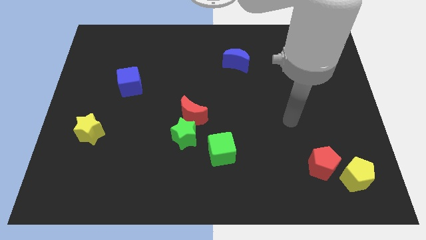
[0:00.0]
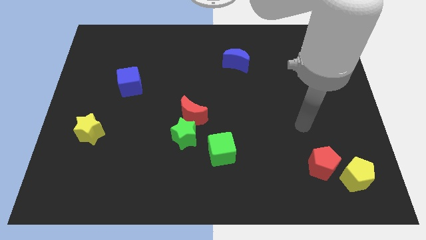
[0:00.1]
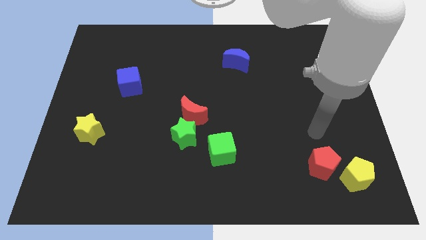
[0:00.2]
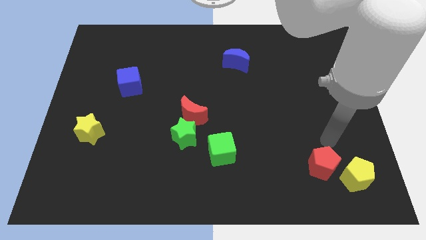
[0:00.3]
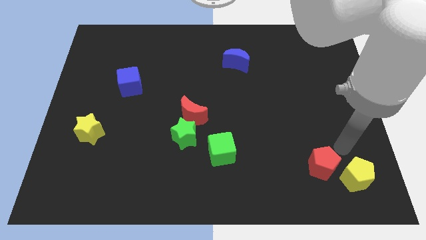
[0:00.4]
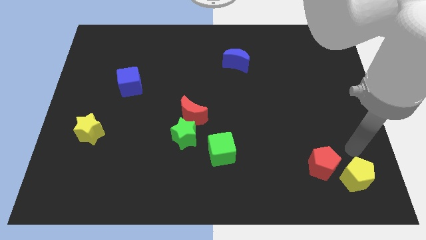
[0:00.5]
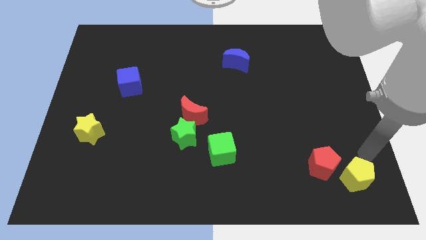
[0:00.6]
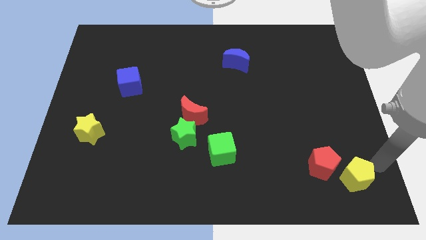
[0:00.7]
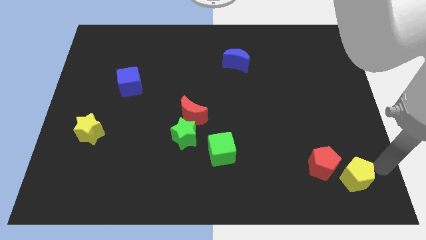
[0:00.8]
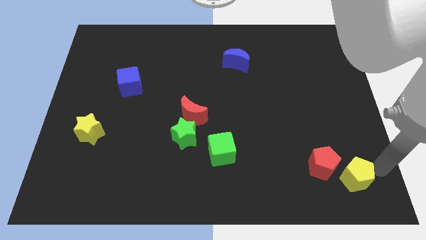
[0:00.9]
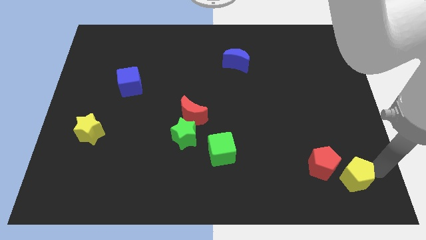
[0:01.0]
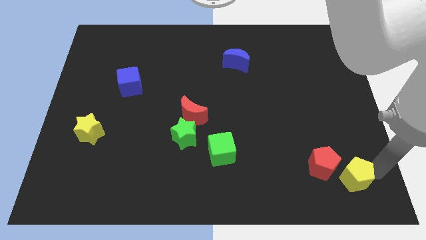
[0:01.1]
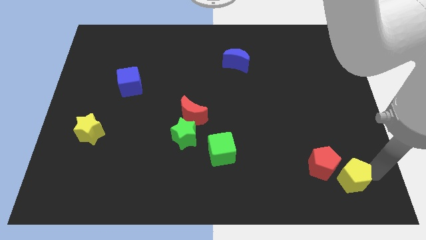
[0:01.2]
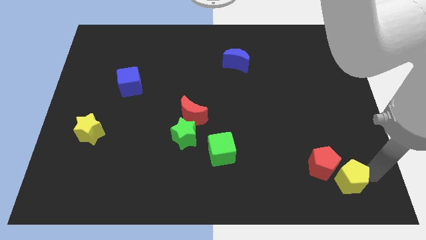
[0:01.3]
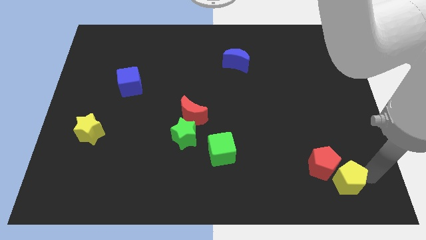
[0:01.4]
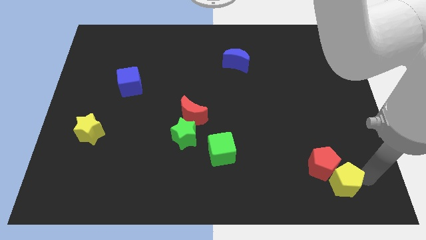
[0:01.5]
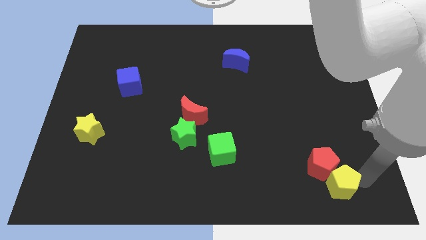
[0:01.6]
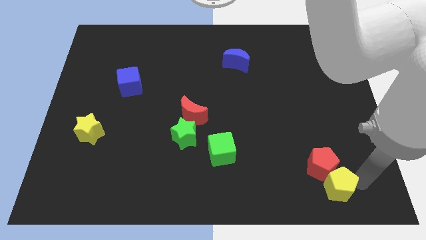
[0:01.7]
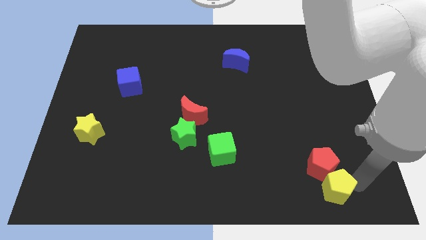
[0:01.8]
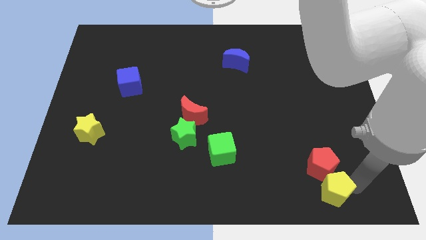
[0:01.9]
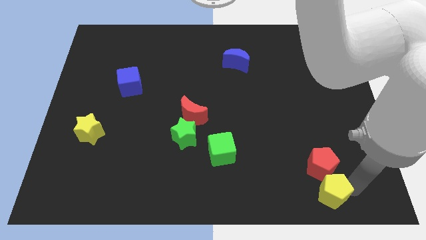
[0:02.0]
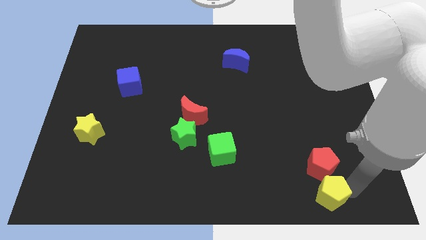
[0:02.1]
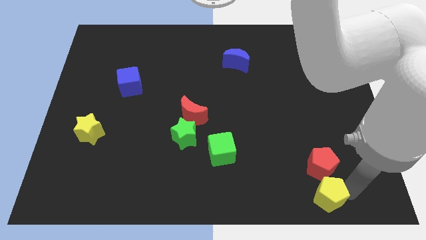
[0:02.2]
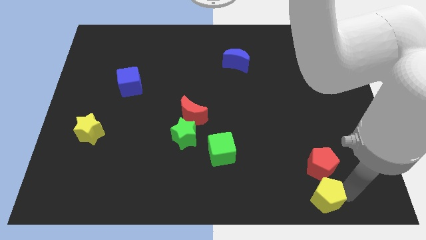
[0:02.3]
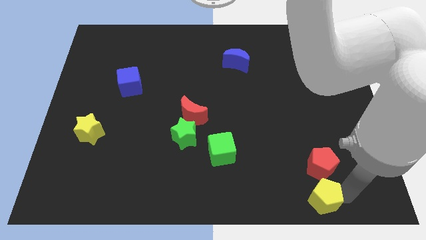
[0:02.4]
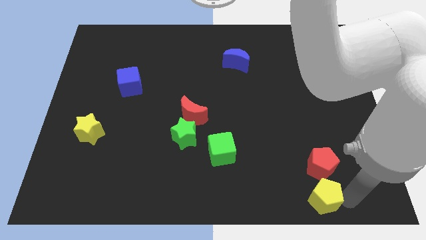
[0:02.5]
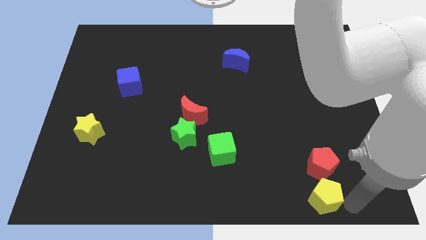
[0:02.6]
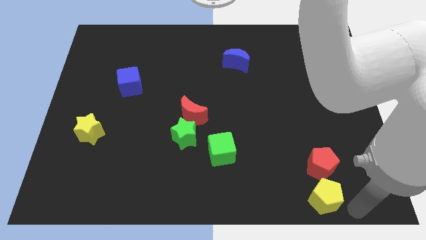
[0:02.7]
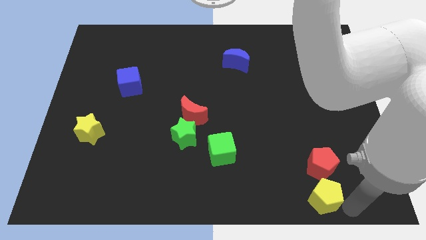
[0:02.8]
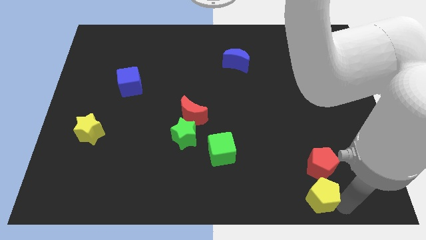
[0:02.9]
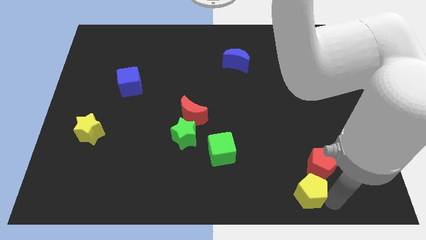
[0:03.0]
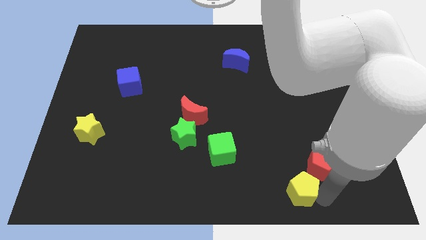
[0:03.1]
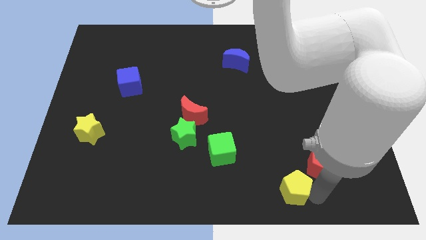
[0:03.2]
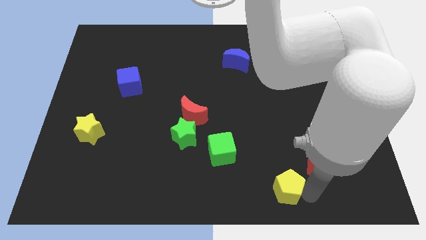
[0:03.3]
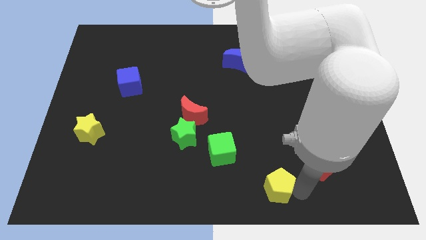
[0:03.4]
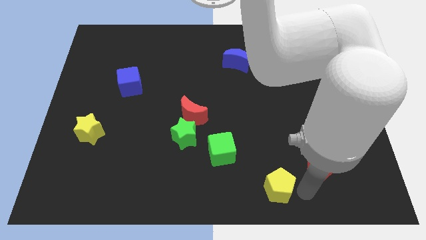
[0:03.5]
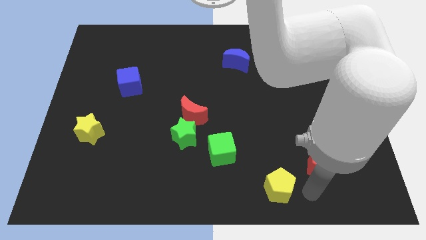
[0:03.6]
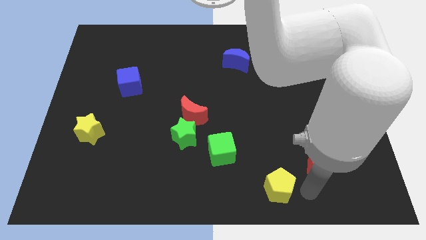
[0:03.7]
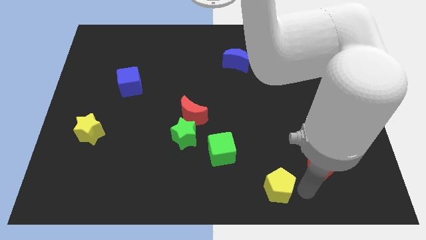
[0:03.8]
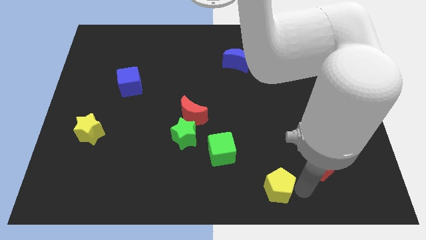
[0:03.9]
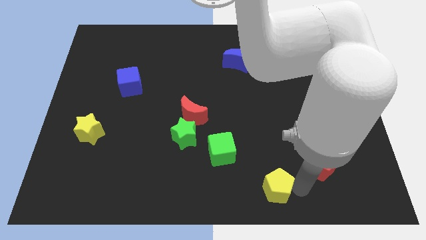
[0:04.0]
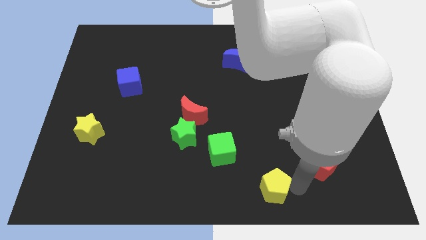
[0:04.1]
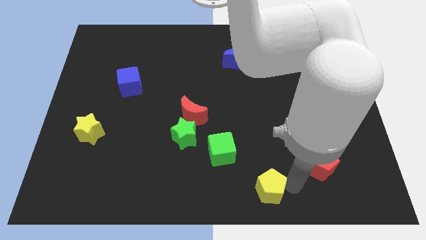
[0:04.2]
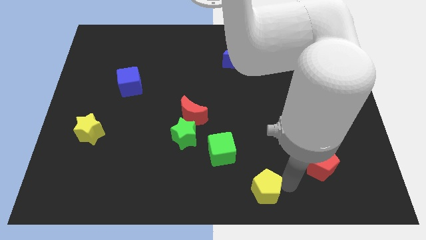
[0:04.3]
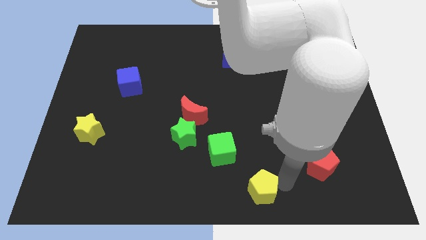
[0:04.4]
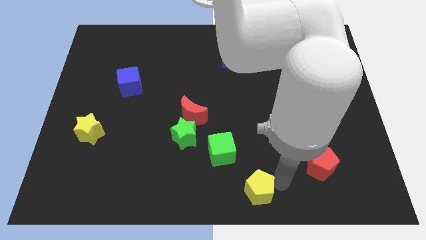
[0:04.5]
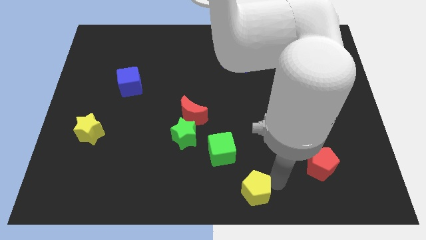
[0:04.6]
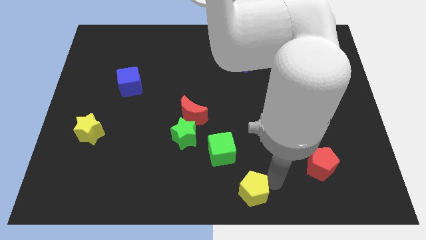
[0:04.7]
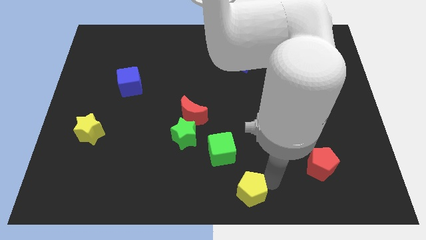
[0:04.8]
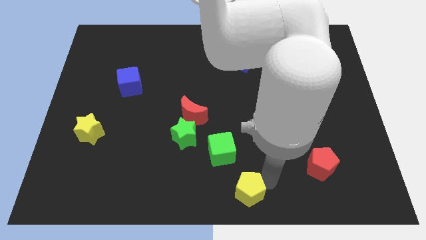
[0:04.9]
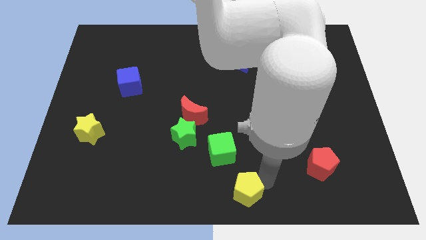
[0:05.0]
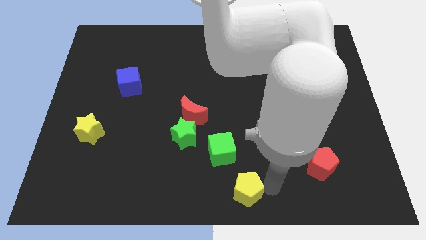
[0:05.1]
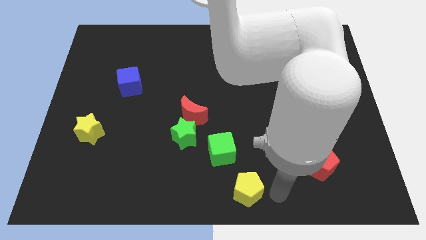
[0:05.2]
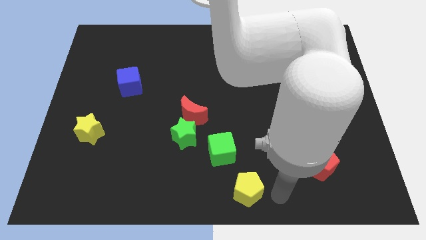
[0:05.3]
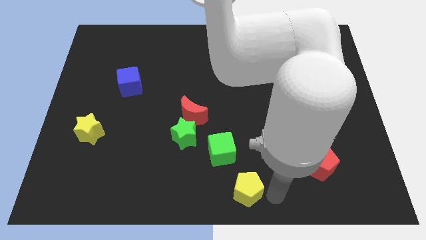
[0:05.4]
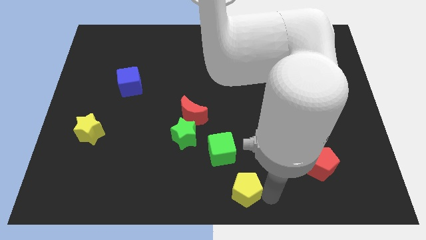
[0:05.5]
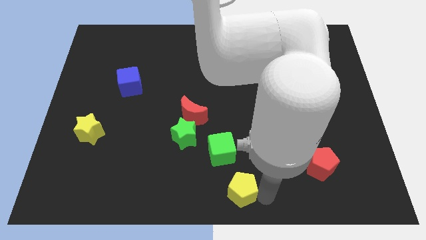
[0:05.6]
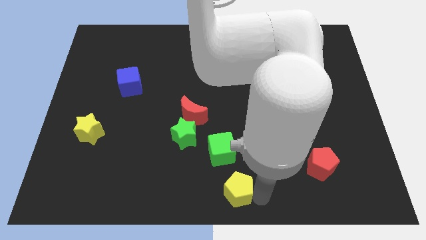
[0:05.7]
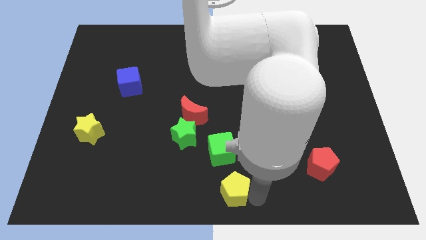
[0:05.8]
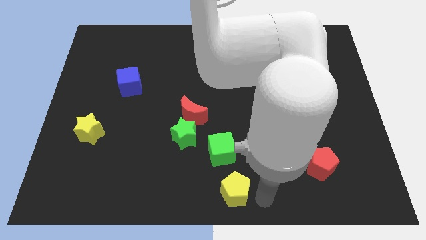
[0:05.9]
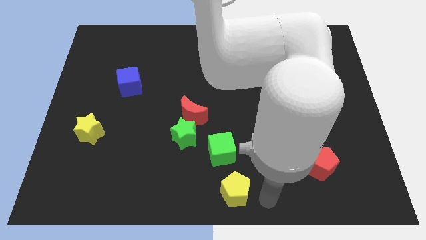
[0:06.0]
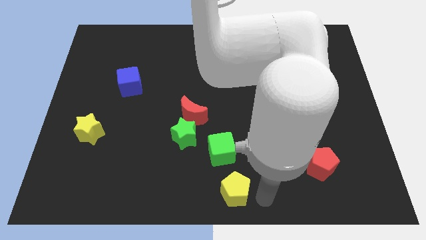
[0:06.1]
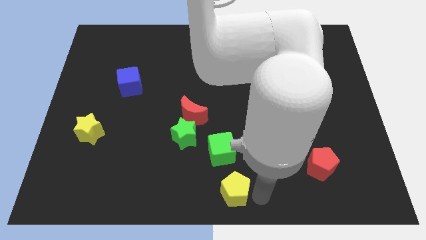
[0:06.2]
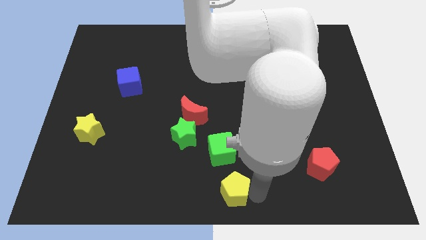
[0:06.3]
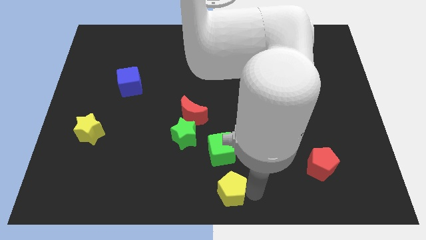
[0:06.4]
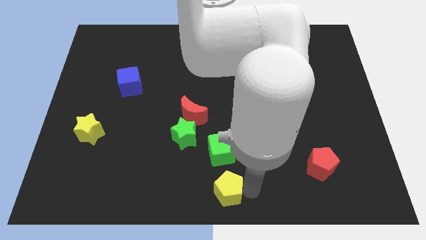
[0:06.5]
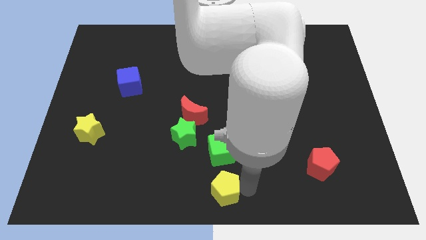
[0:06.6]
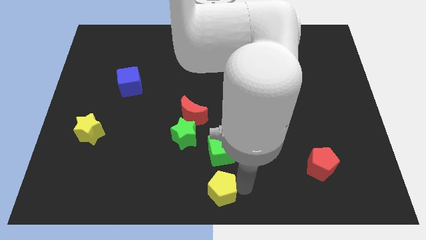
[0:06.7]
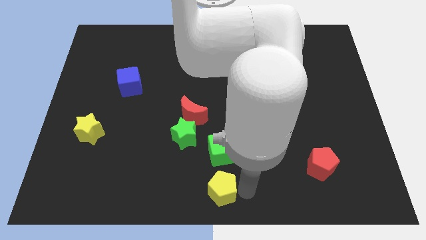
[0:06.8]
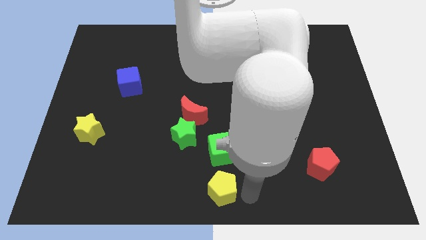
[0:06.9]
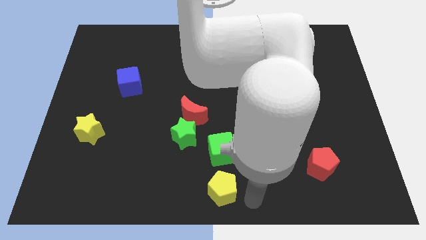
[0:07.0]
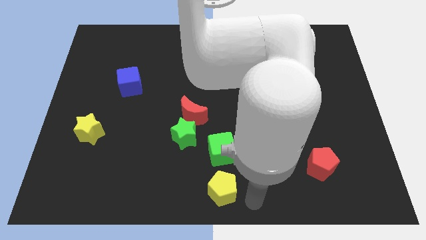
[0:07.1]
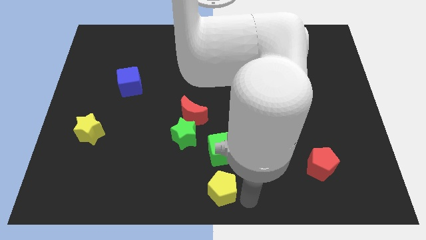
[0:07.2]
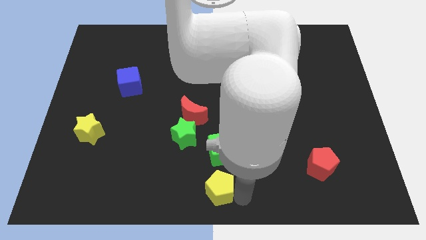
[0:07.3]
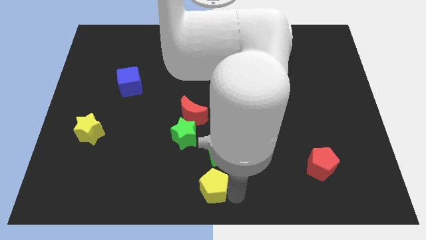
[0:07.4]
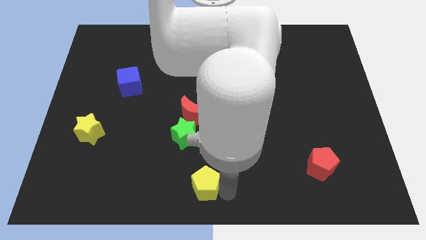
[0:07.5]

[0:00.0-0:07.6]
push the yellow pentagon to the bottom side of the green star

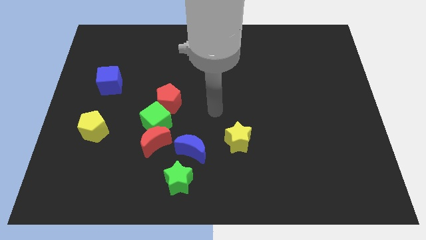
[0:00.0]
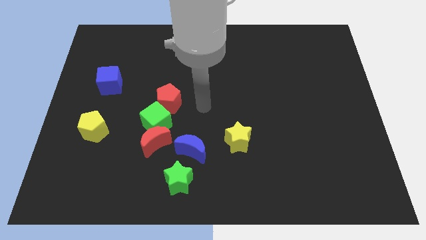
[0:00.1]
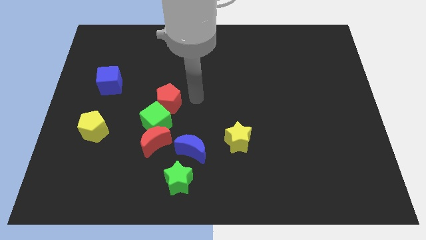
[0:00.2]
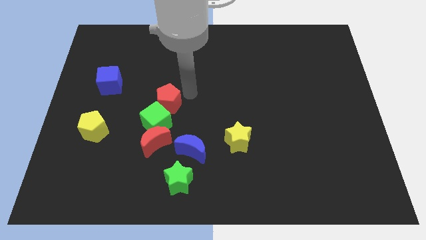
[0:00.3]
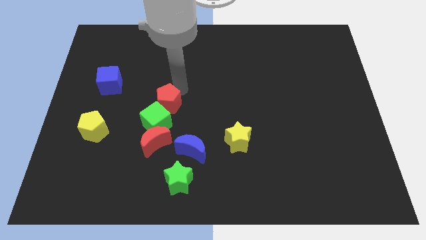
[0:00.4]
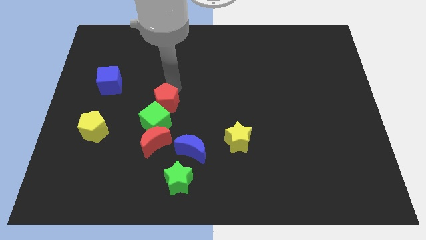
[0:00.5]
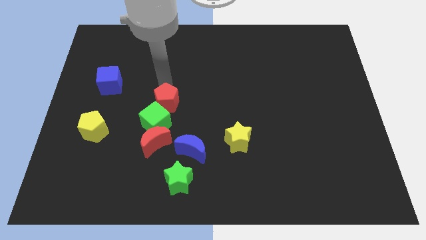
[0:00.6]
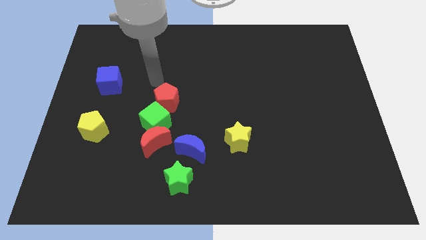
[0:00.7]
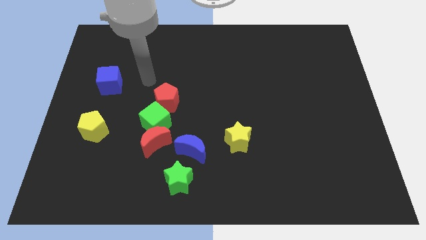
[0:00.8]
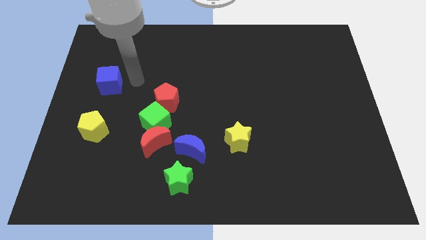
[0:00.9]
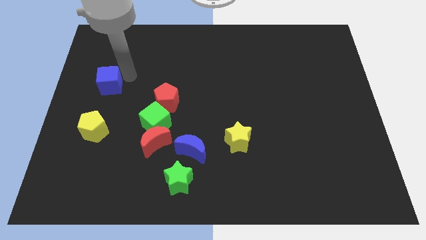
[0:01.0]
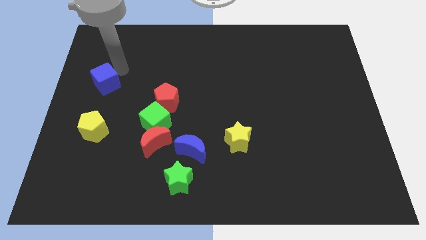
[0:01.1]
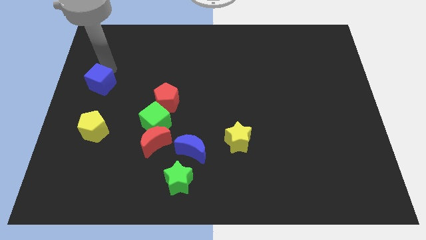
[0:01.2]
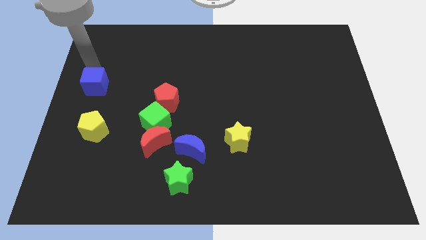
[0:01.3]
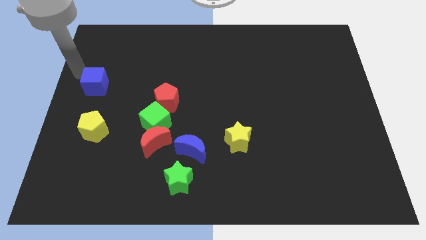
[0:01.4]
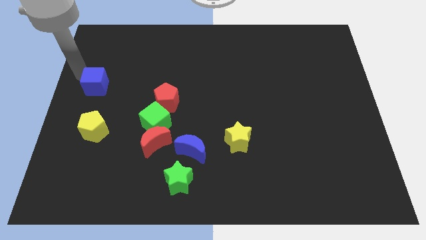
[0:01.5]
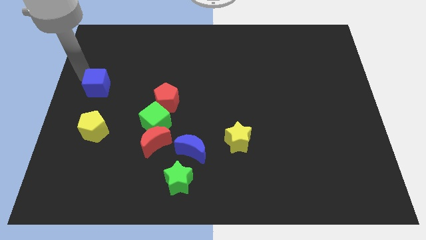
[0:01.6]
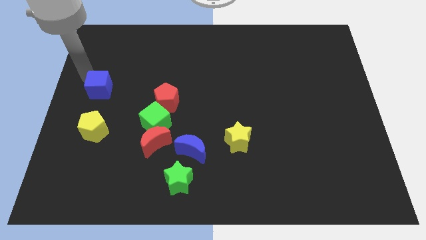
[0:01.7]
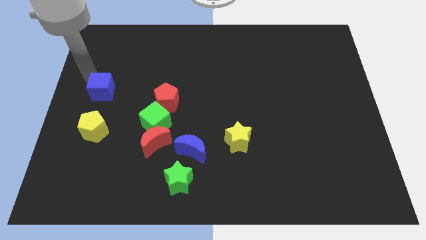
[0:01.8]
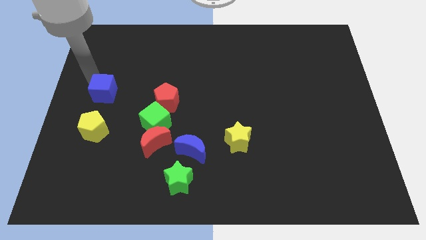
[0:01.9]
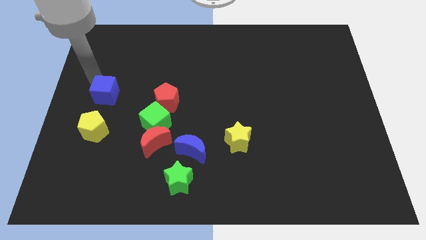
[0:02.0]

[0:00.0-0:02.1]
slide the blue cube just left of the red pentagon
